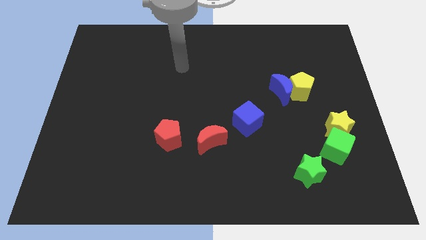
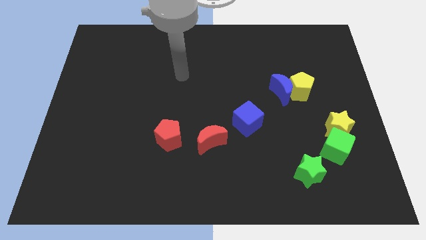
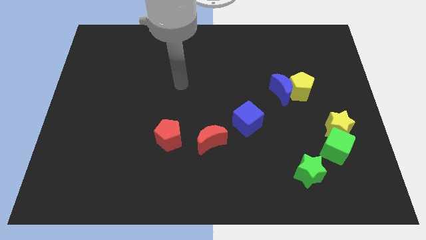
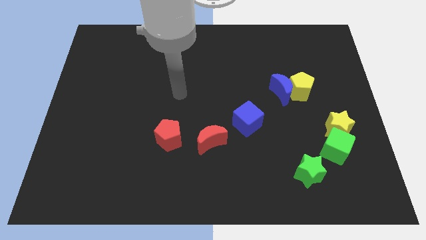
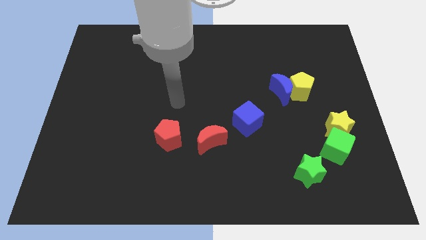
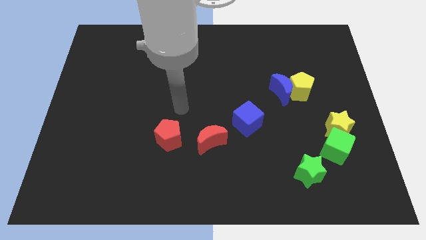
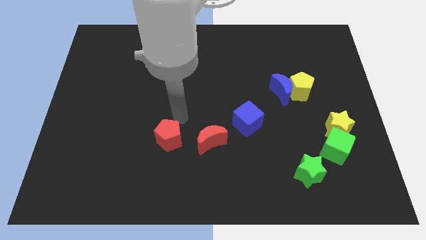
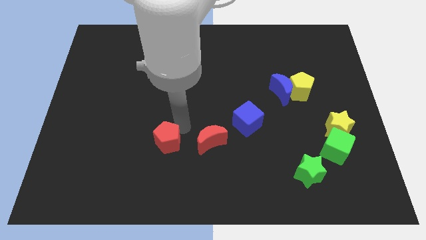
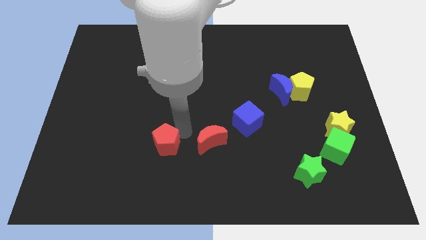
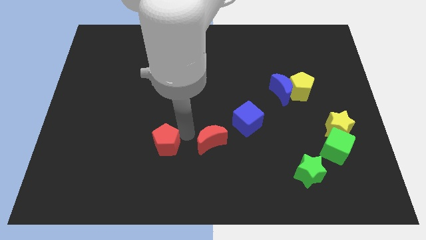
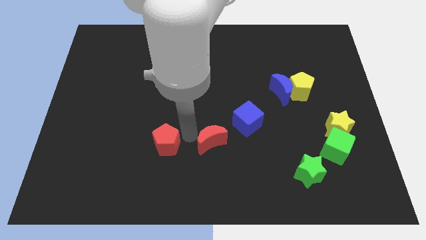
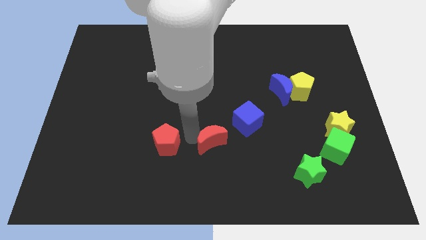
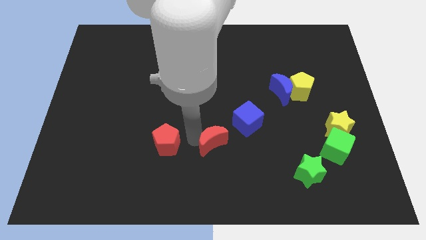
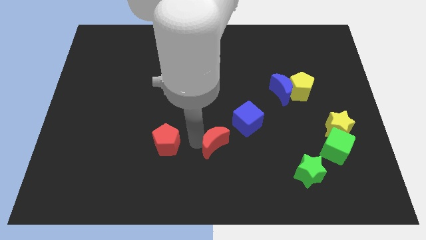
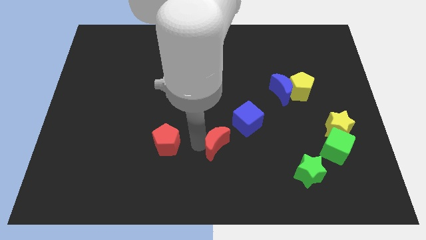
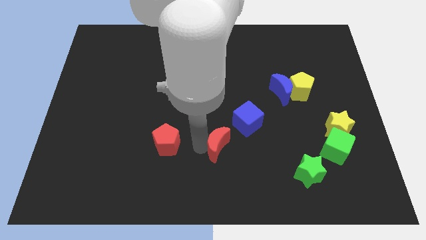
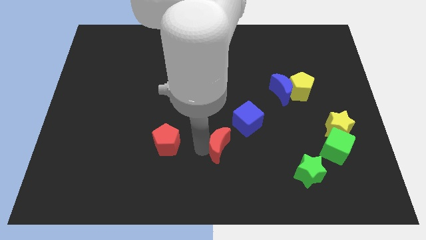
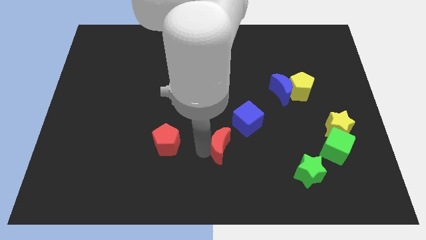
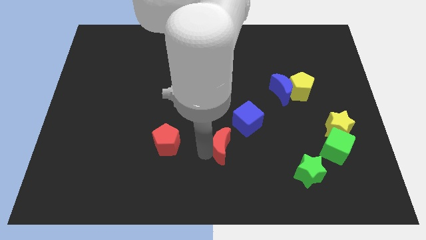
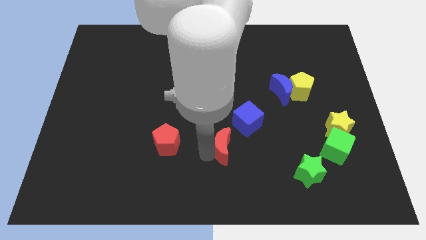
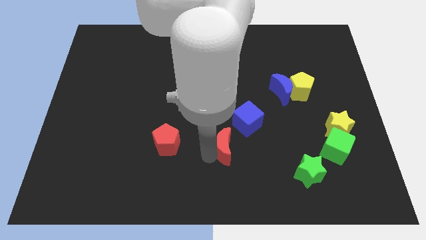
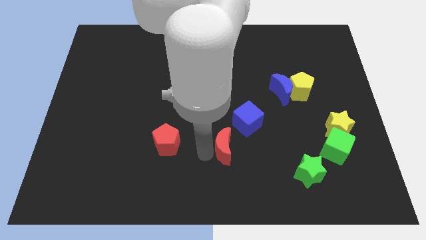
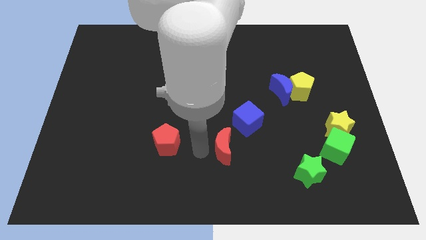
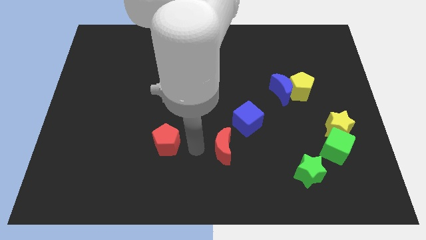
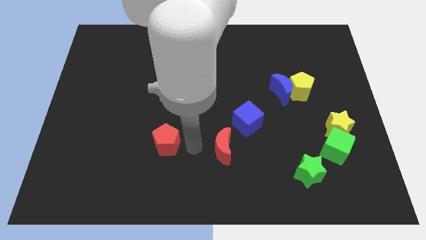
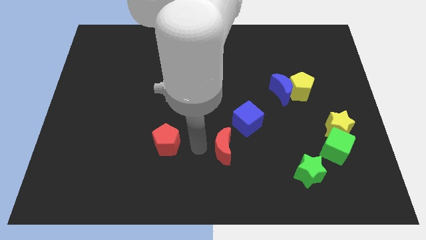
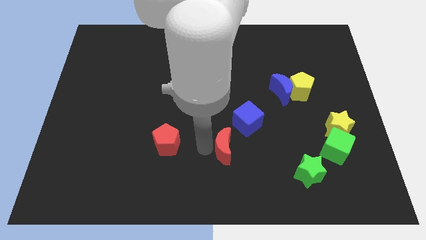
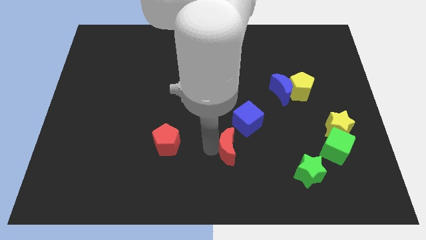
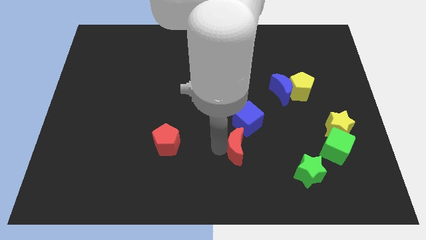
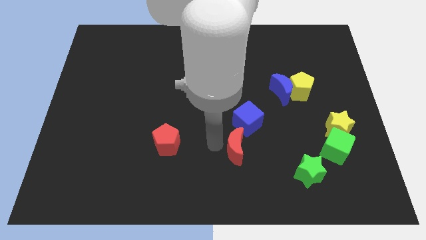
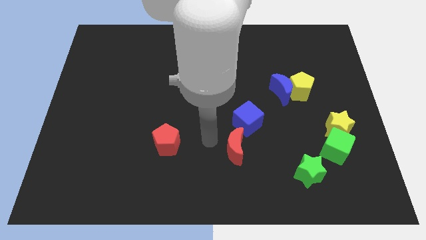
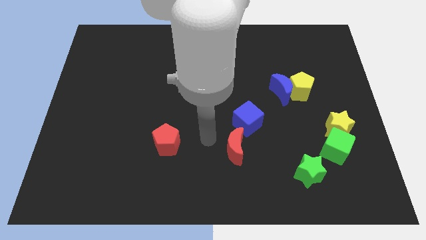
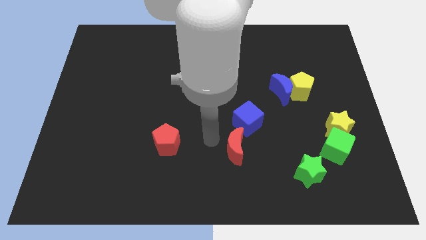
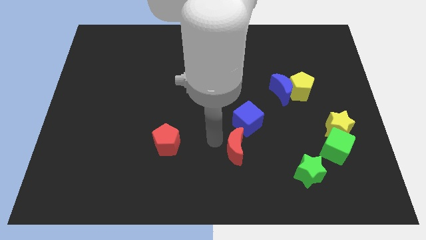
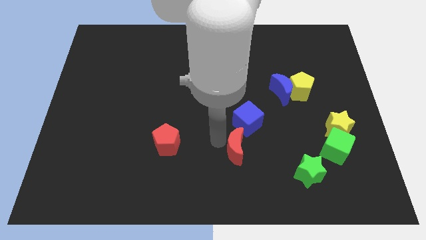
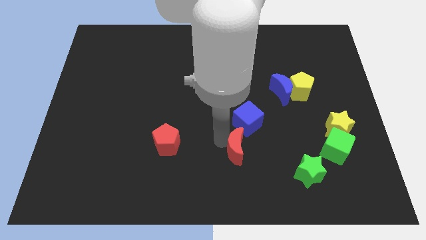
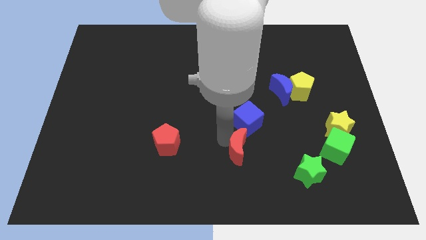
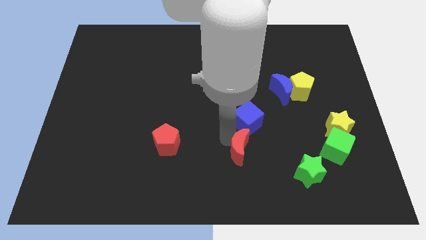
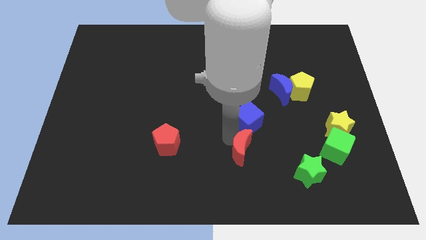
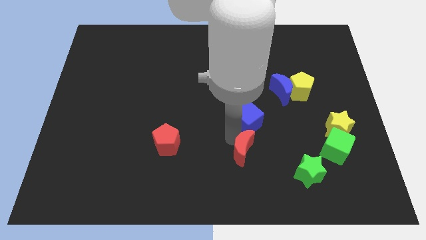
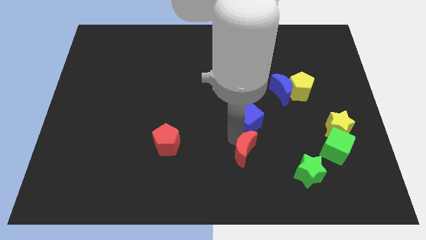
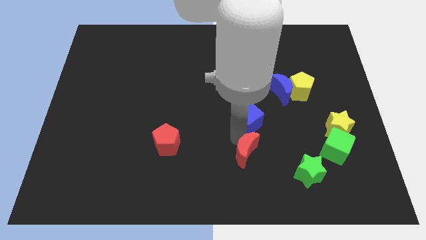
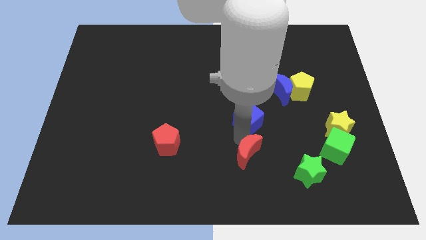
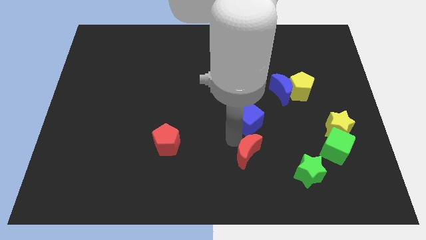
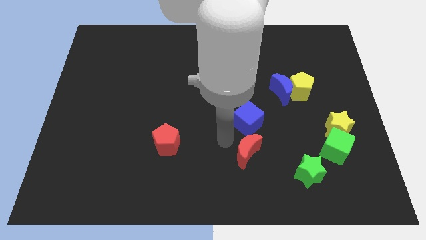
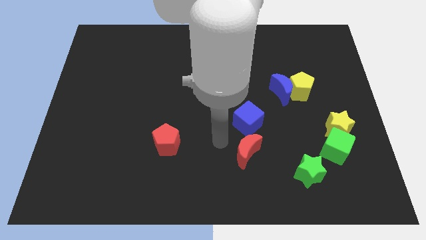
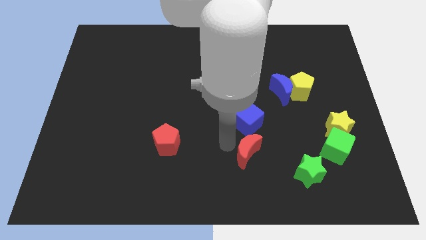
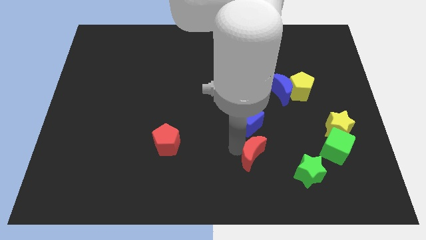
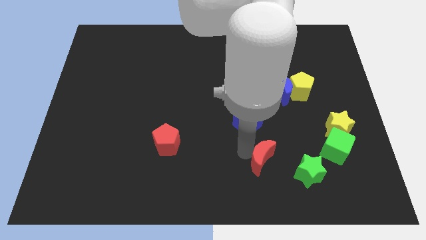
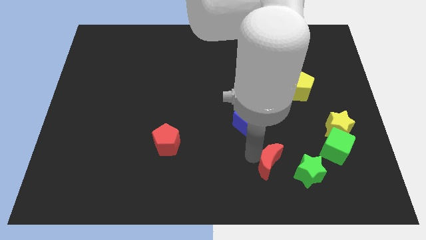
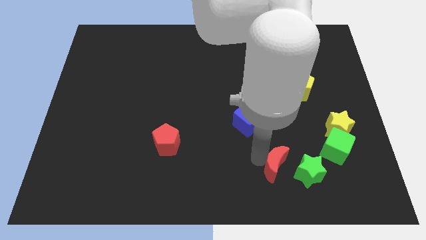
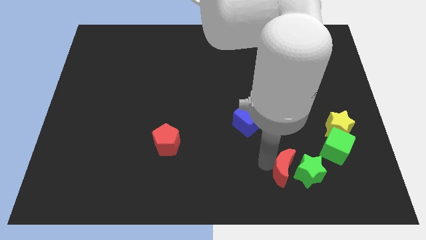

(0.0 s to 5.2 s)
put the red moon towards the green star

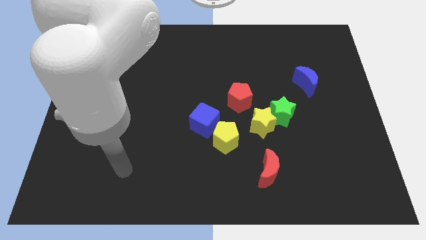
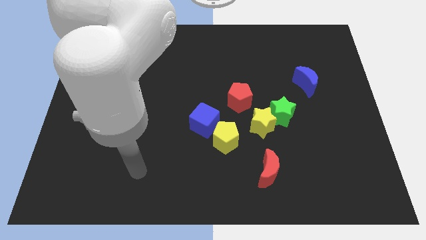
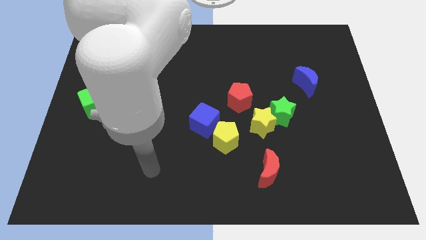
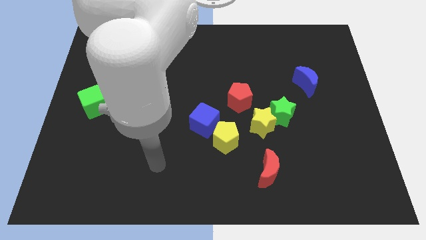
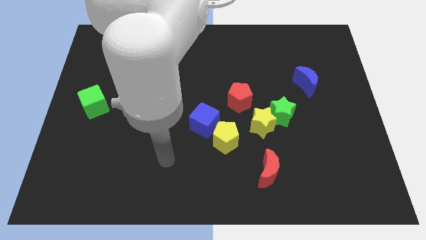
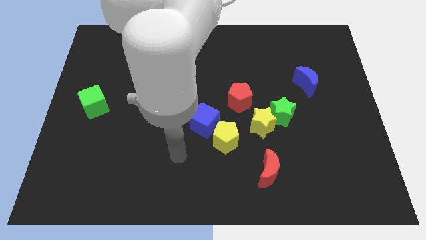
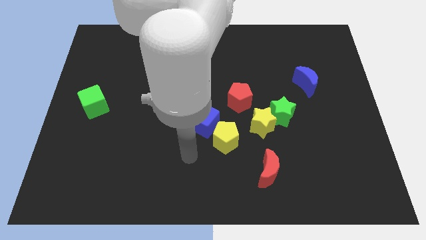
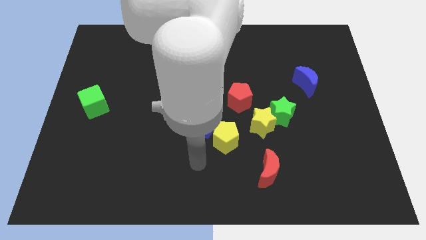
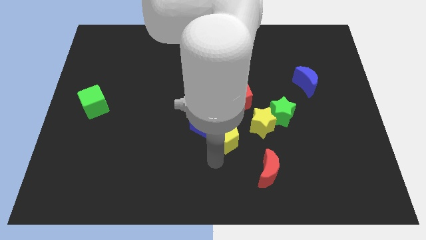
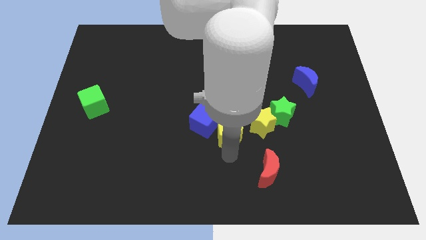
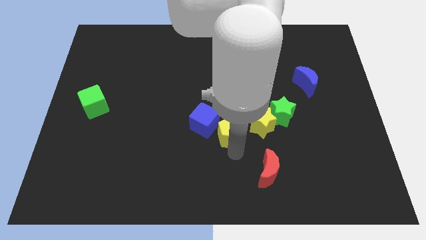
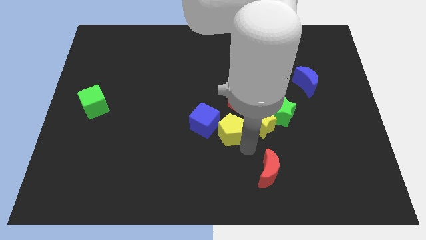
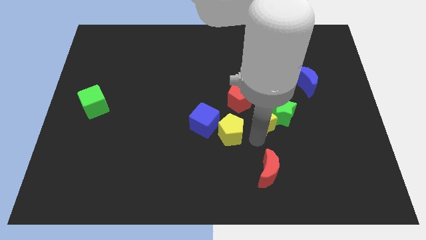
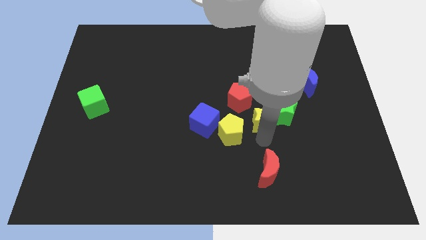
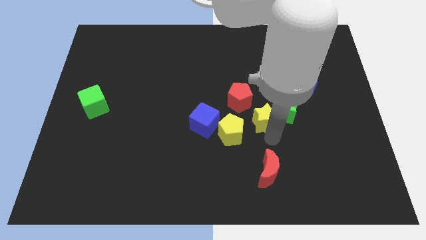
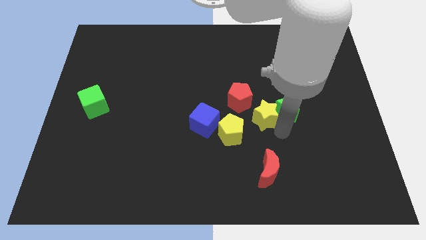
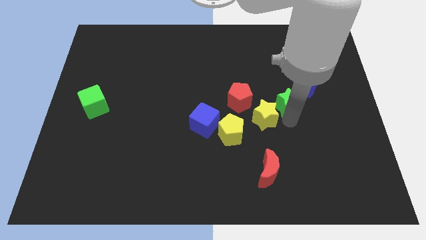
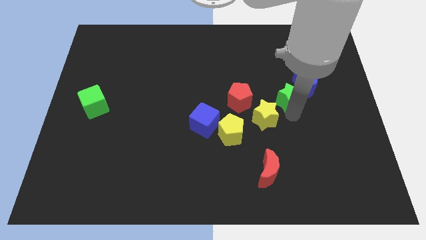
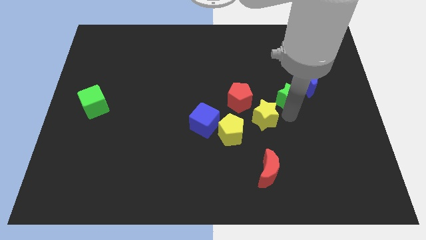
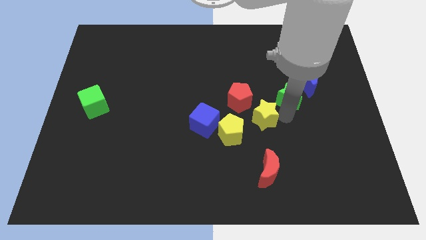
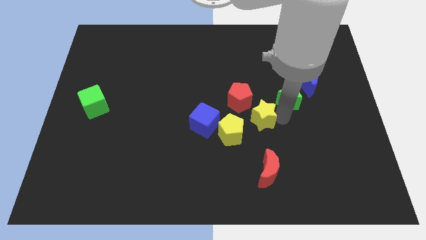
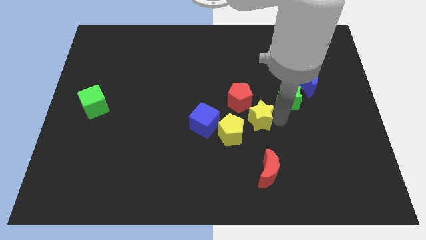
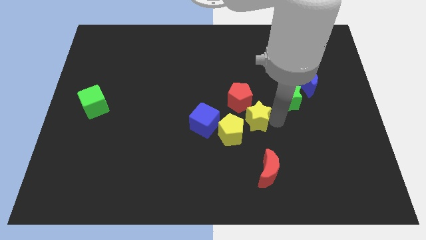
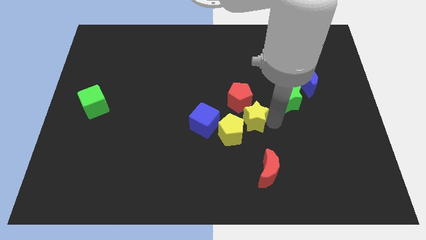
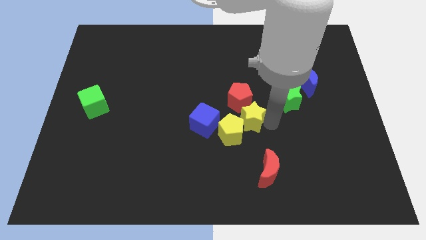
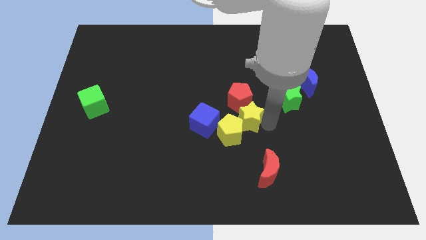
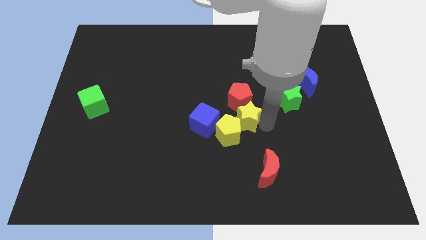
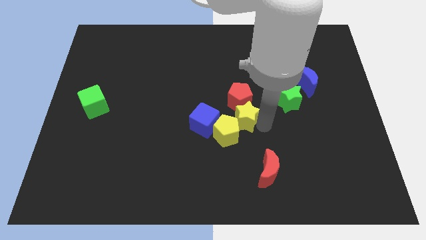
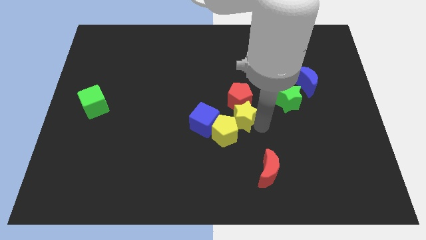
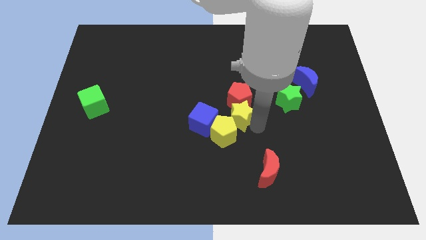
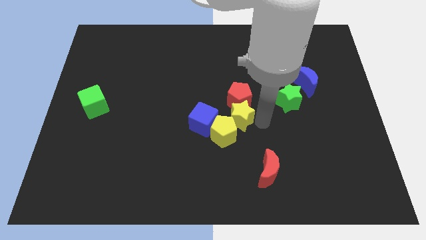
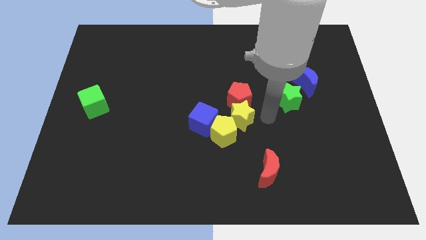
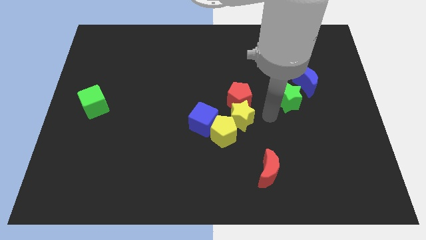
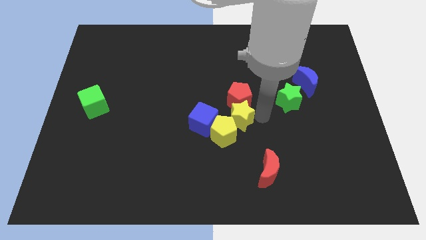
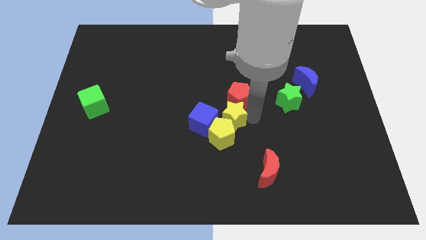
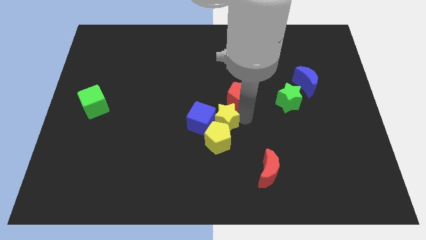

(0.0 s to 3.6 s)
push the yellow star to the blue cube
